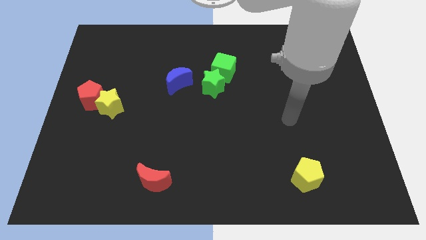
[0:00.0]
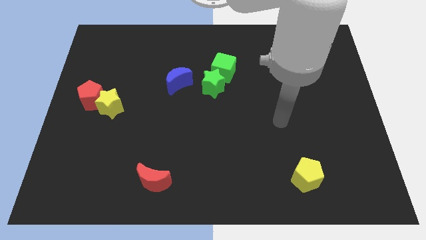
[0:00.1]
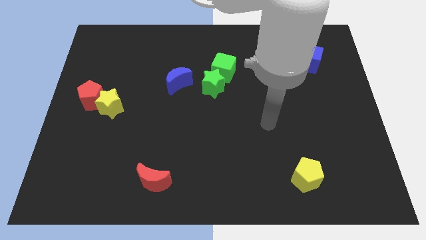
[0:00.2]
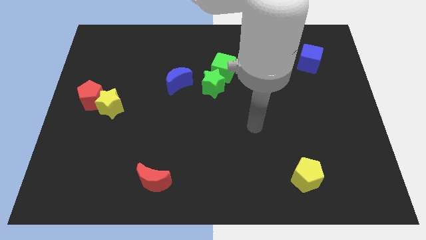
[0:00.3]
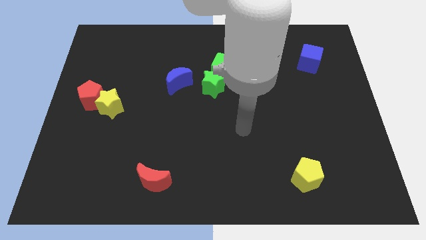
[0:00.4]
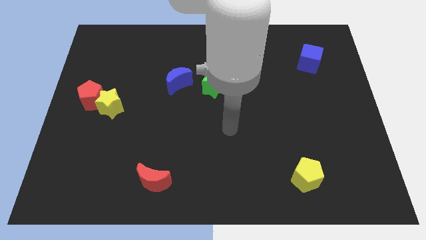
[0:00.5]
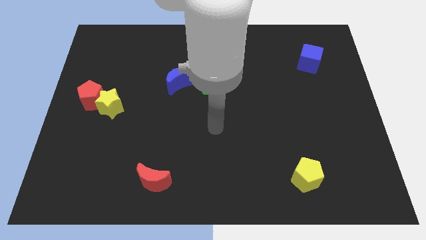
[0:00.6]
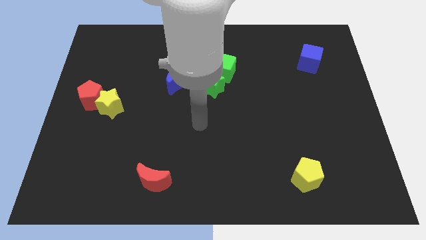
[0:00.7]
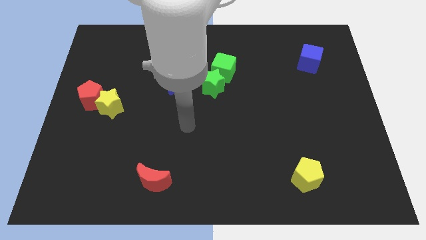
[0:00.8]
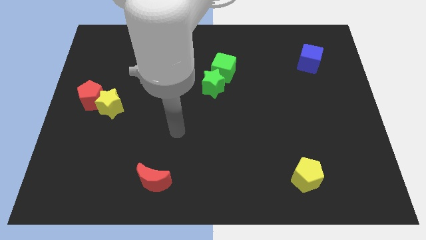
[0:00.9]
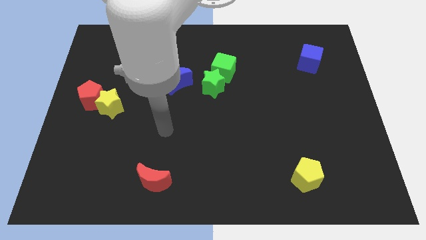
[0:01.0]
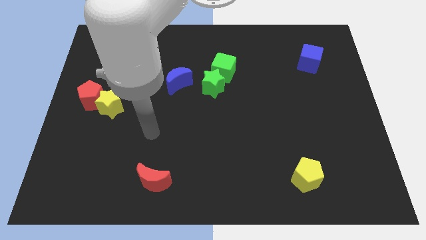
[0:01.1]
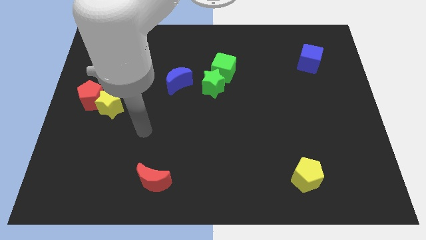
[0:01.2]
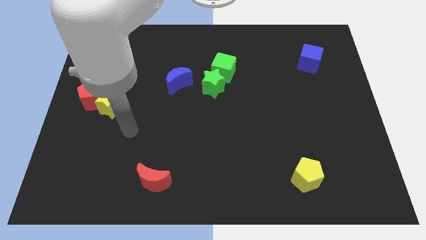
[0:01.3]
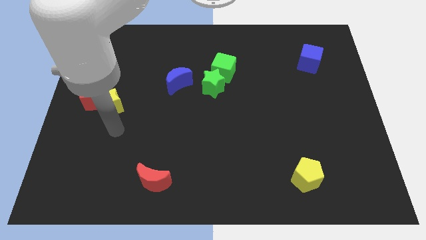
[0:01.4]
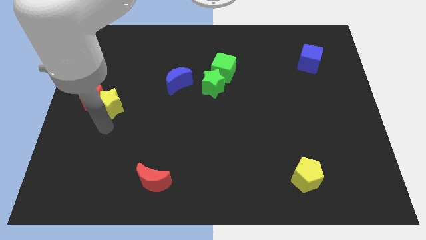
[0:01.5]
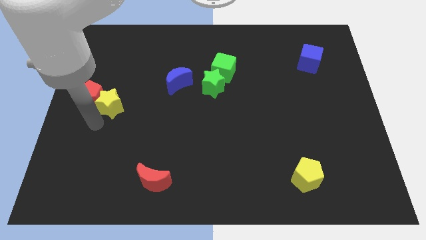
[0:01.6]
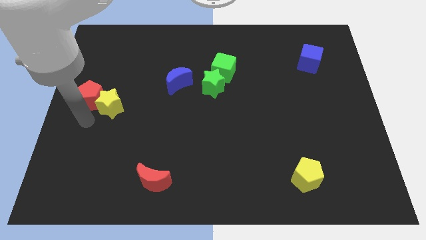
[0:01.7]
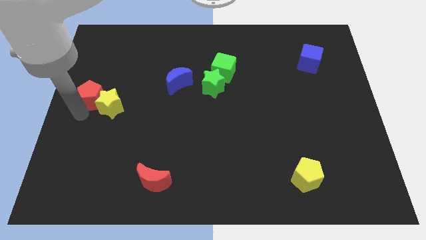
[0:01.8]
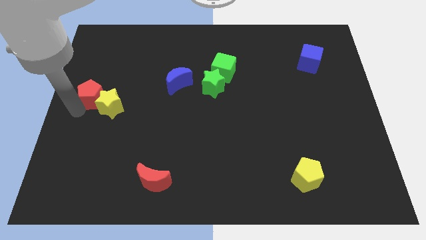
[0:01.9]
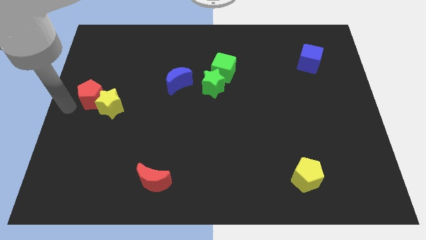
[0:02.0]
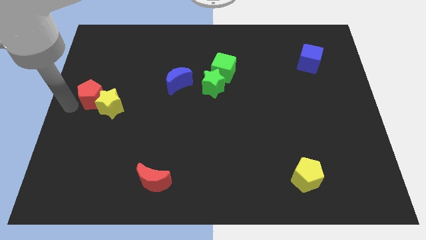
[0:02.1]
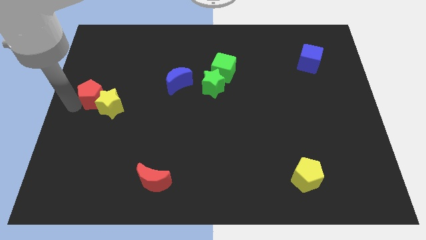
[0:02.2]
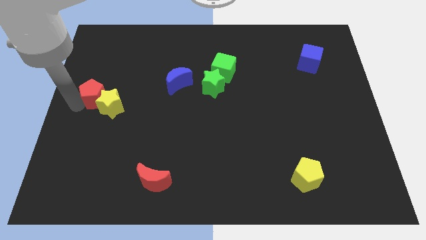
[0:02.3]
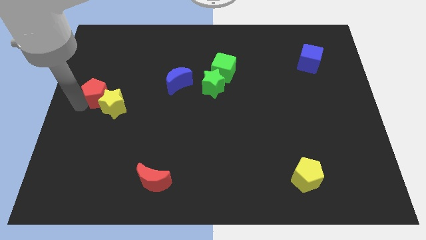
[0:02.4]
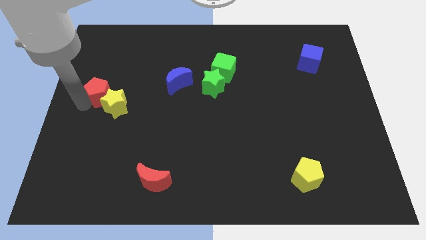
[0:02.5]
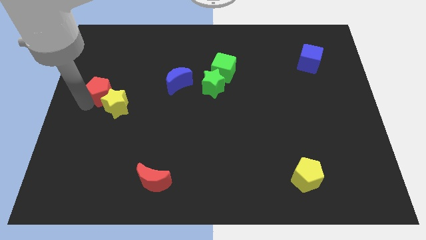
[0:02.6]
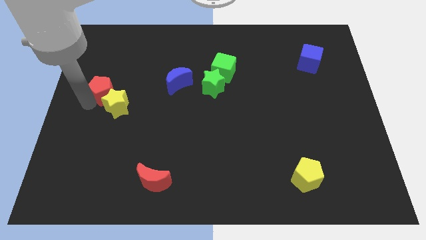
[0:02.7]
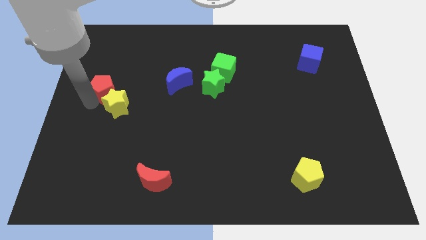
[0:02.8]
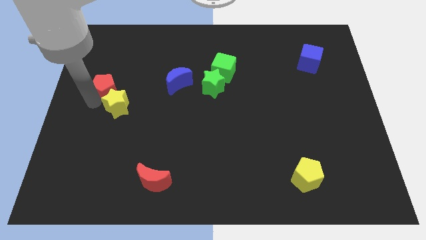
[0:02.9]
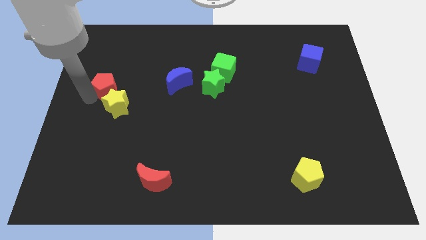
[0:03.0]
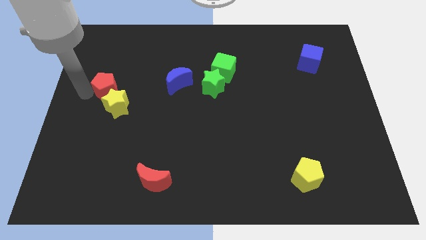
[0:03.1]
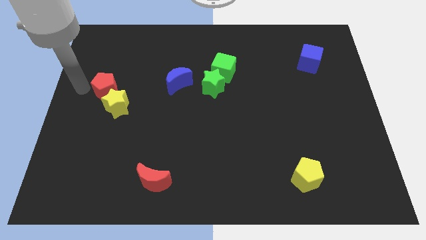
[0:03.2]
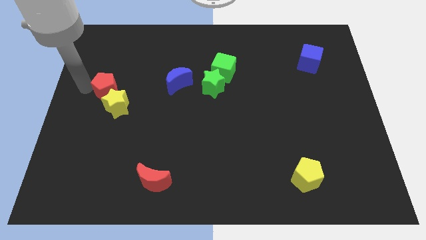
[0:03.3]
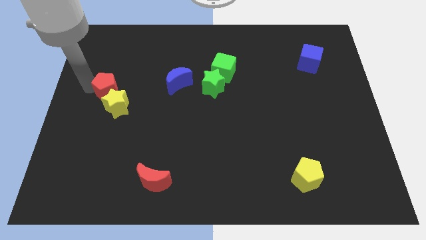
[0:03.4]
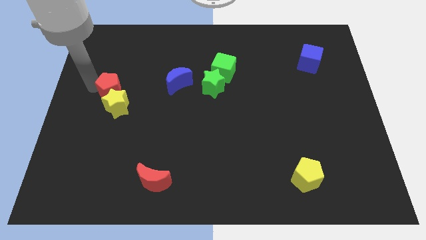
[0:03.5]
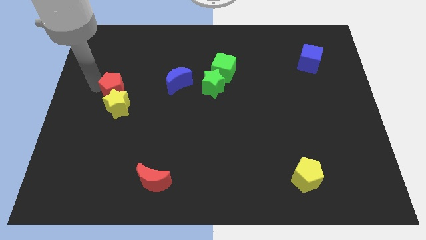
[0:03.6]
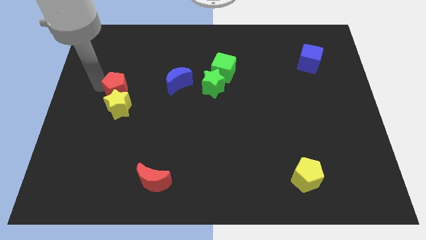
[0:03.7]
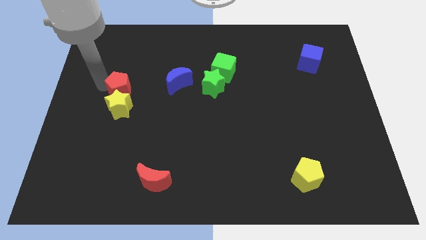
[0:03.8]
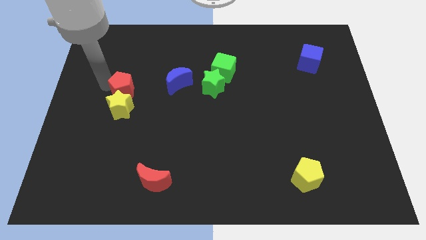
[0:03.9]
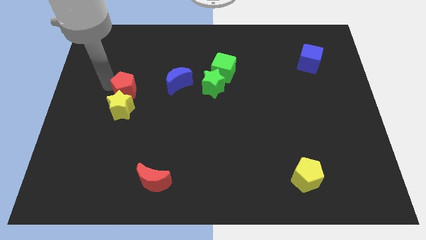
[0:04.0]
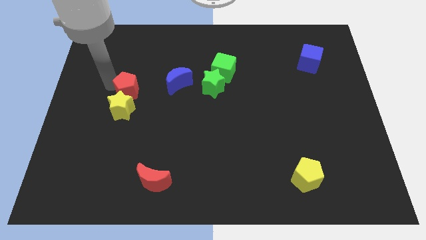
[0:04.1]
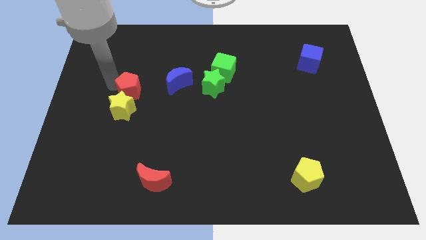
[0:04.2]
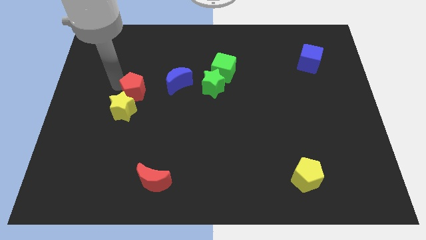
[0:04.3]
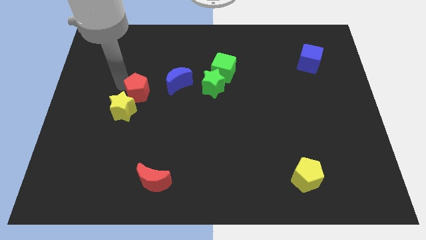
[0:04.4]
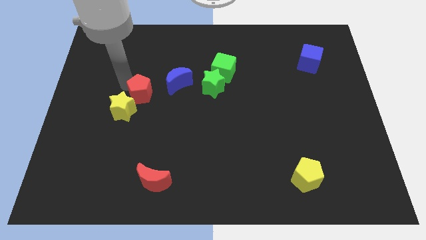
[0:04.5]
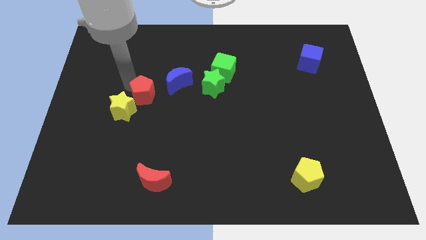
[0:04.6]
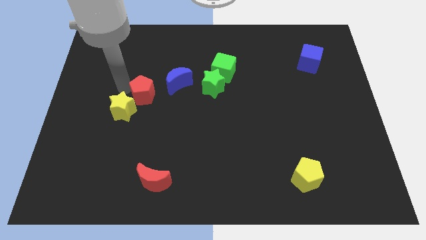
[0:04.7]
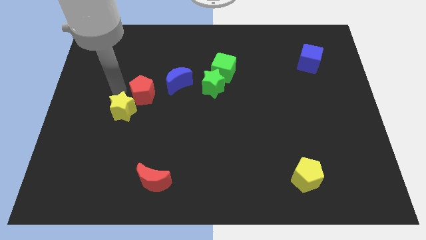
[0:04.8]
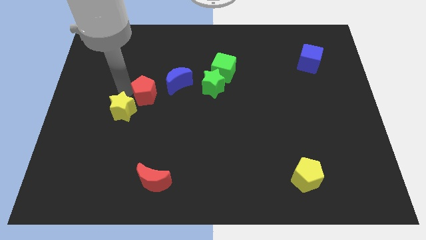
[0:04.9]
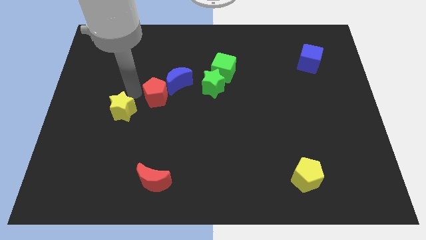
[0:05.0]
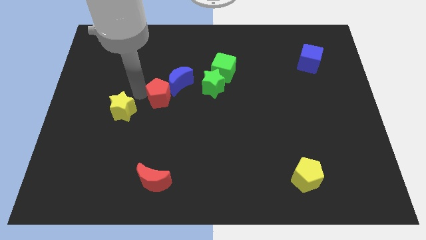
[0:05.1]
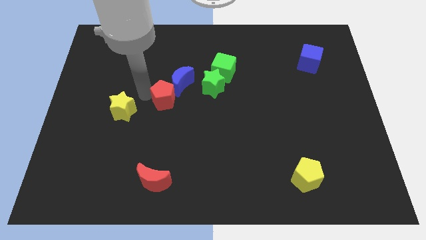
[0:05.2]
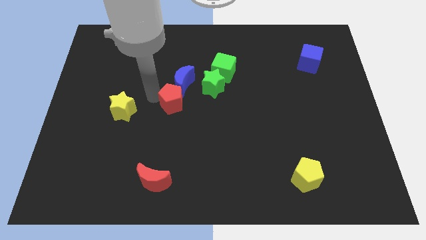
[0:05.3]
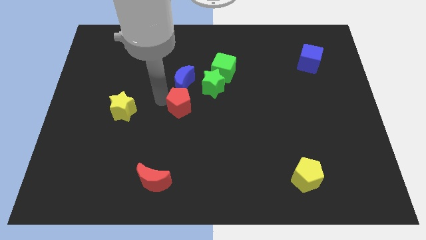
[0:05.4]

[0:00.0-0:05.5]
move the red pentagon right

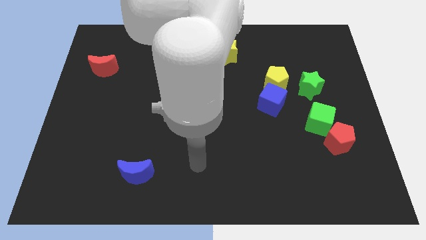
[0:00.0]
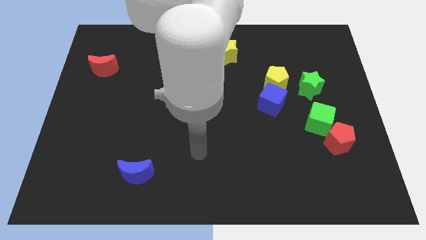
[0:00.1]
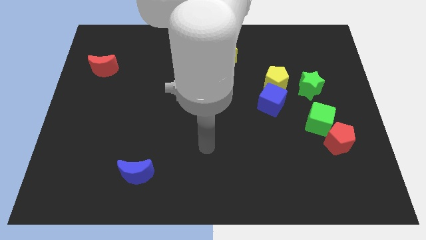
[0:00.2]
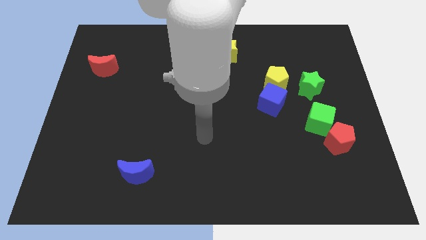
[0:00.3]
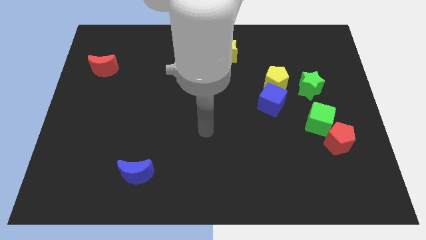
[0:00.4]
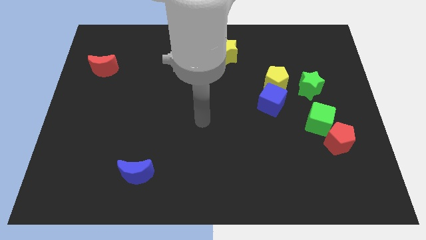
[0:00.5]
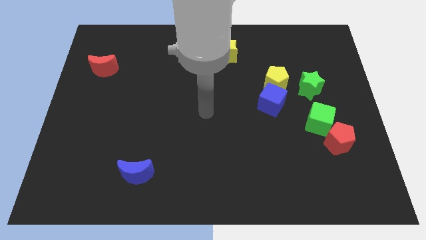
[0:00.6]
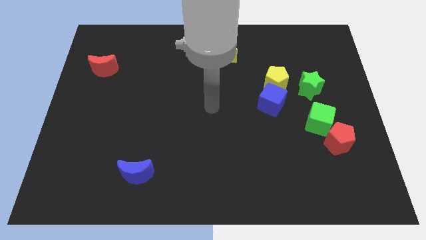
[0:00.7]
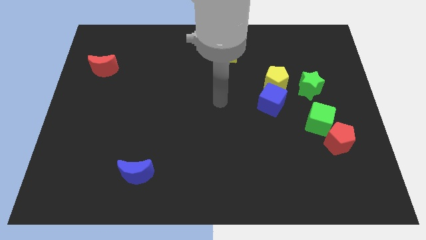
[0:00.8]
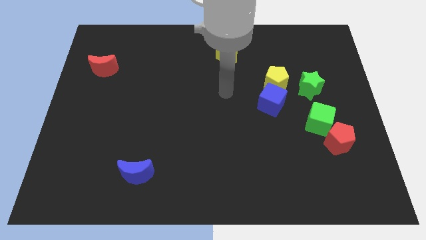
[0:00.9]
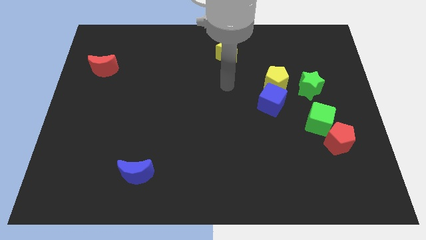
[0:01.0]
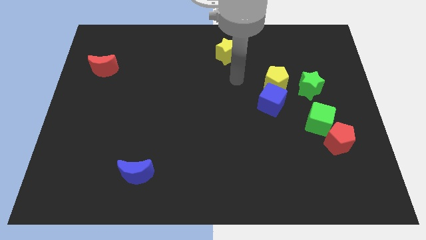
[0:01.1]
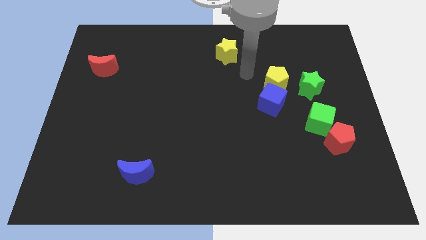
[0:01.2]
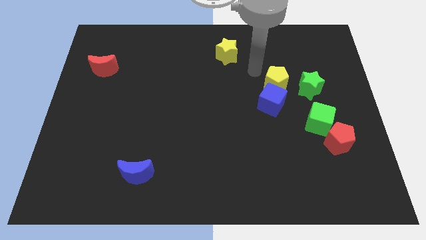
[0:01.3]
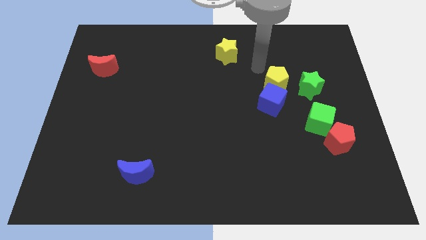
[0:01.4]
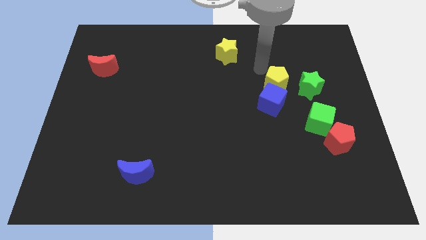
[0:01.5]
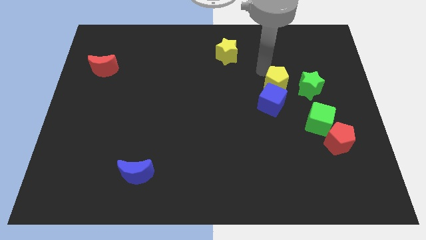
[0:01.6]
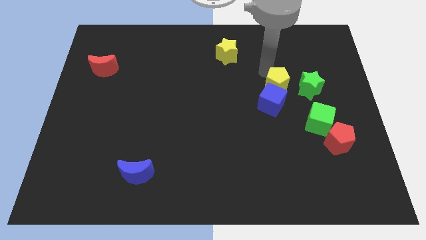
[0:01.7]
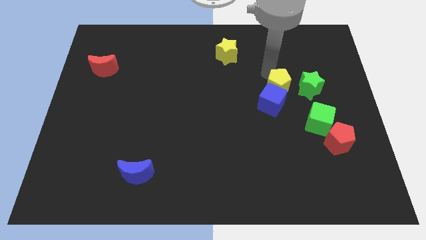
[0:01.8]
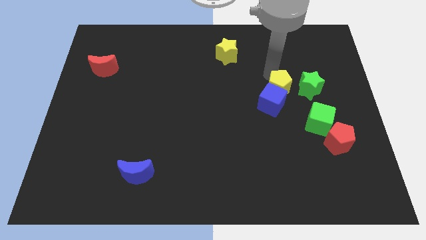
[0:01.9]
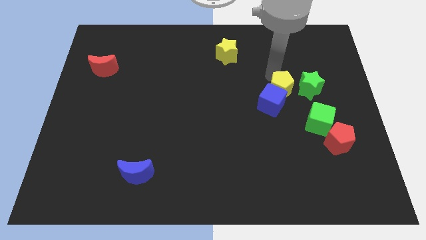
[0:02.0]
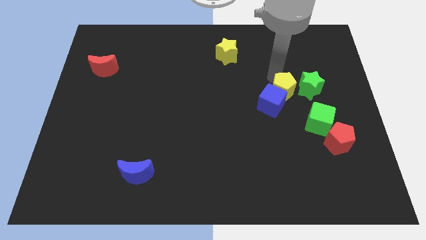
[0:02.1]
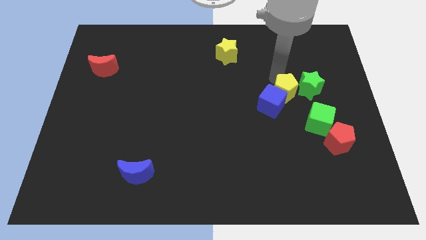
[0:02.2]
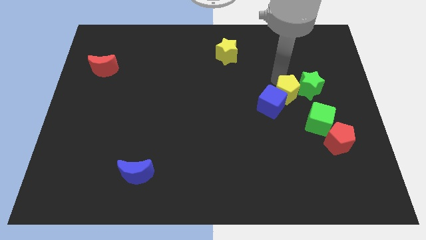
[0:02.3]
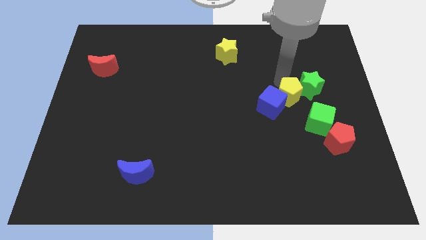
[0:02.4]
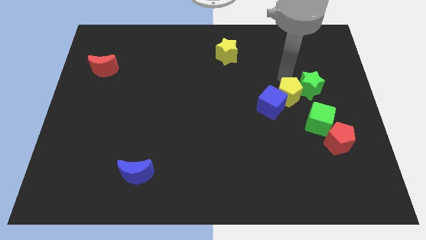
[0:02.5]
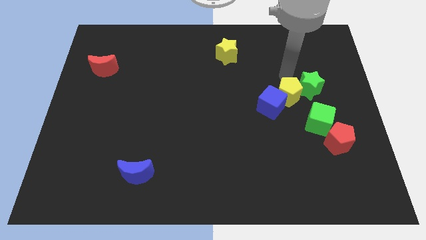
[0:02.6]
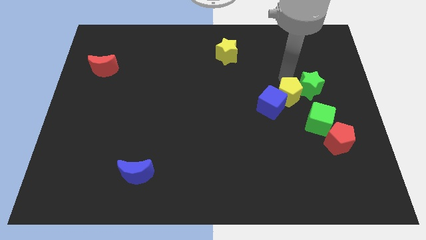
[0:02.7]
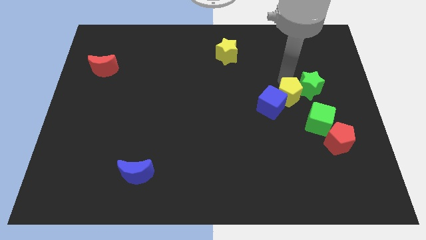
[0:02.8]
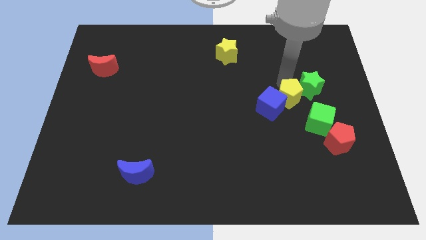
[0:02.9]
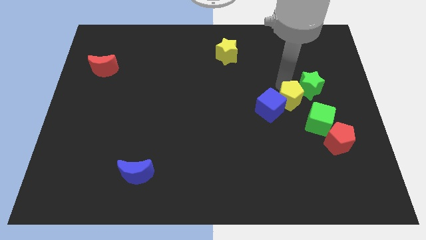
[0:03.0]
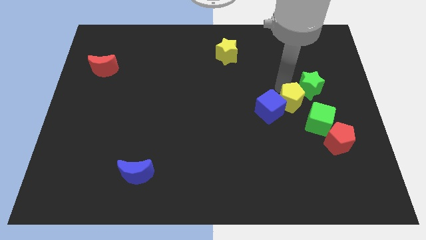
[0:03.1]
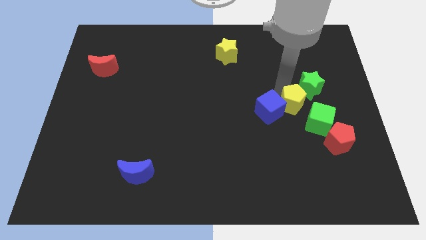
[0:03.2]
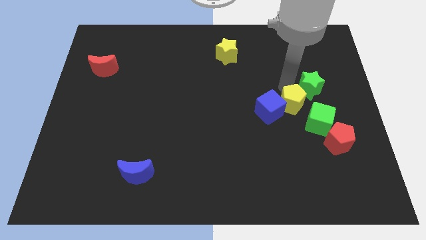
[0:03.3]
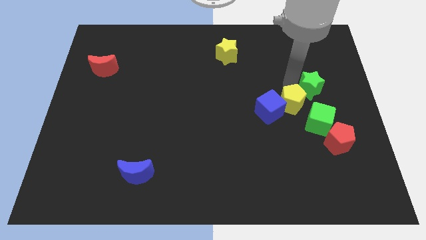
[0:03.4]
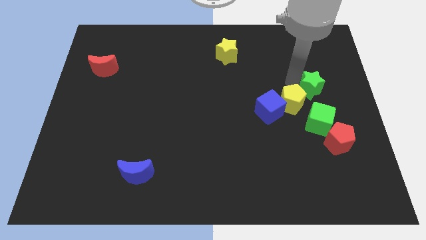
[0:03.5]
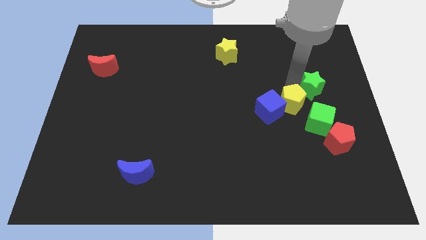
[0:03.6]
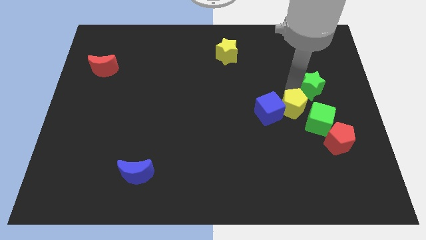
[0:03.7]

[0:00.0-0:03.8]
move the yellow pentagon downwards a little bit
